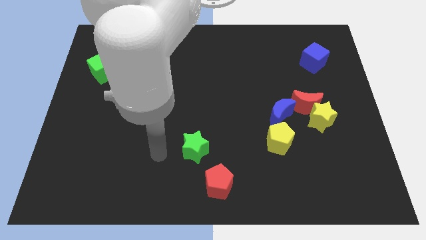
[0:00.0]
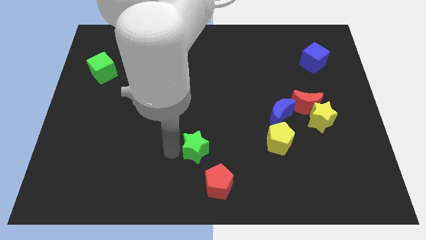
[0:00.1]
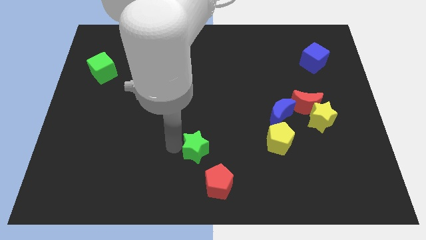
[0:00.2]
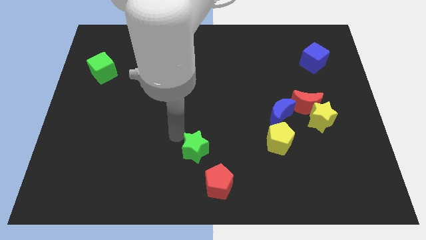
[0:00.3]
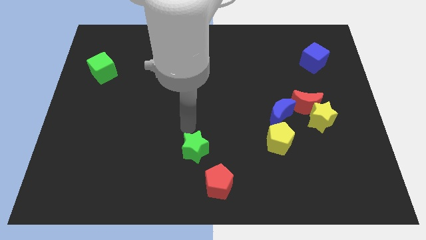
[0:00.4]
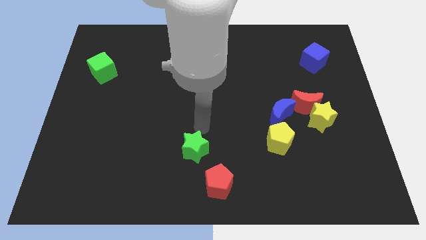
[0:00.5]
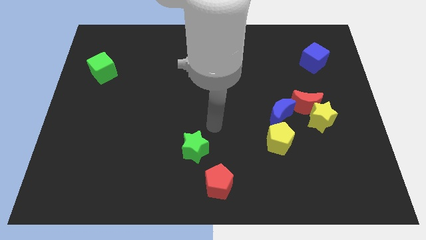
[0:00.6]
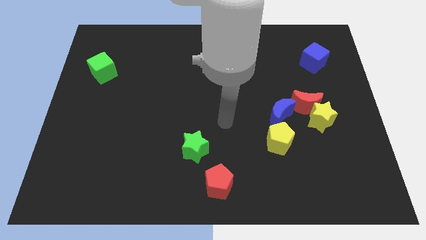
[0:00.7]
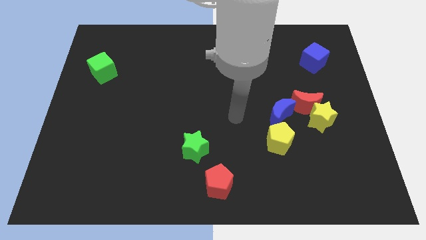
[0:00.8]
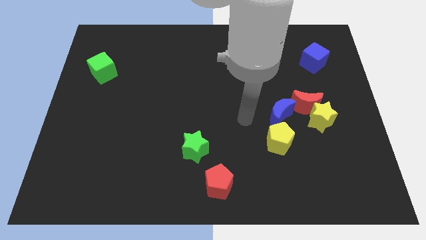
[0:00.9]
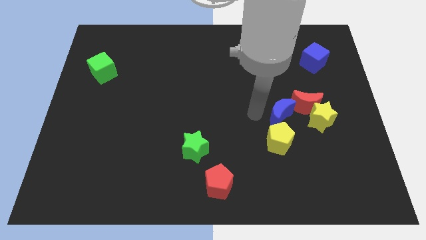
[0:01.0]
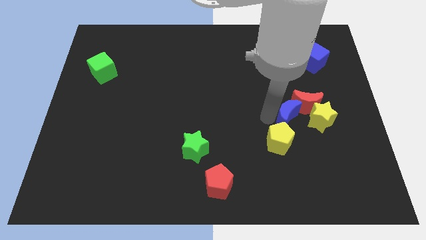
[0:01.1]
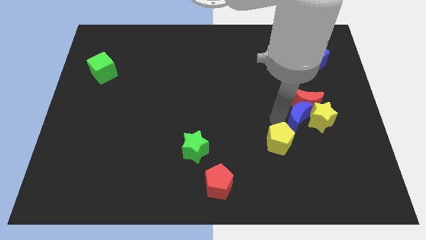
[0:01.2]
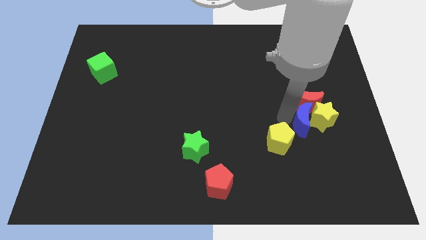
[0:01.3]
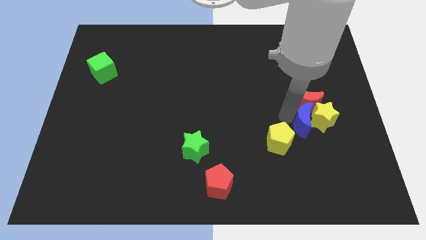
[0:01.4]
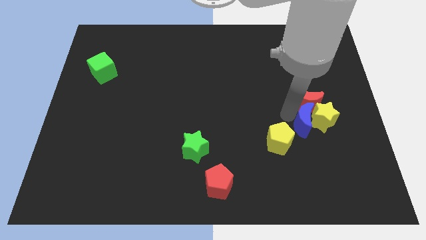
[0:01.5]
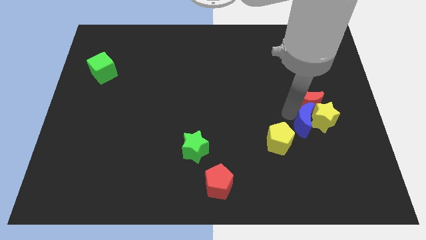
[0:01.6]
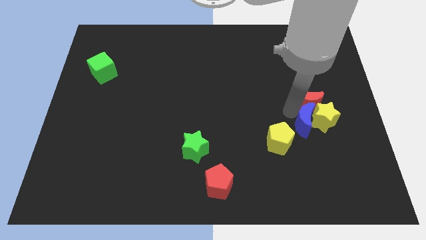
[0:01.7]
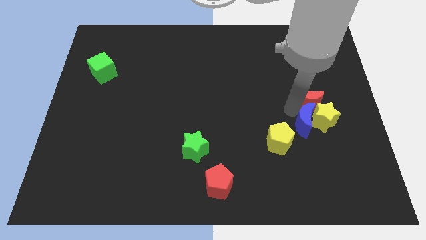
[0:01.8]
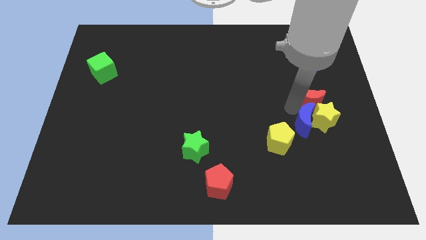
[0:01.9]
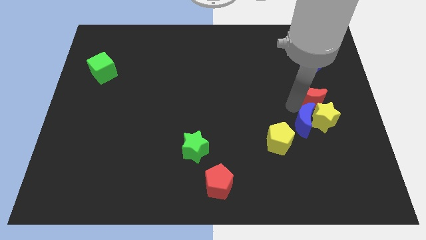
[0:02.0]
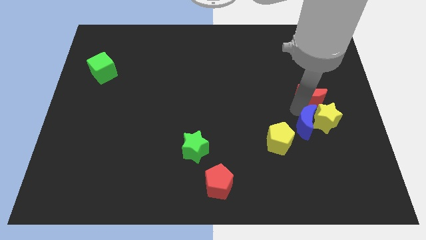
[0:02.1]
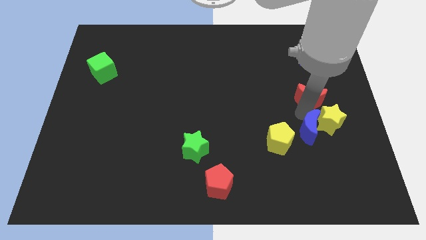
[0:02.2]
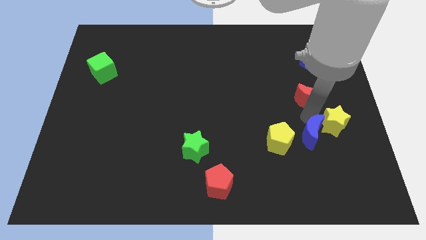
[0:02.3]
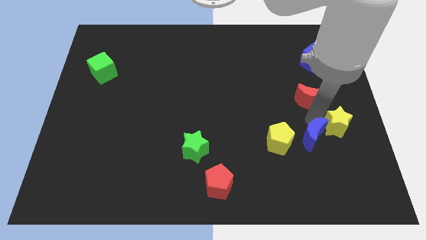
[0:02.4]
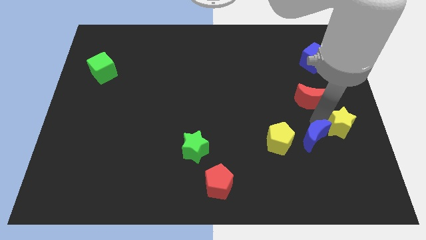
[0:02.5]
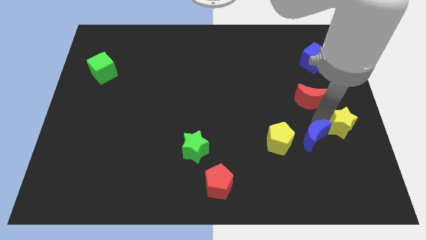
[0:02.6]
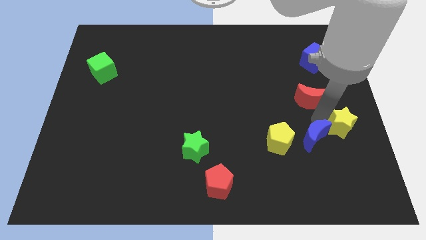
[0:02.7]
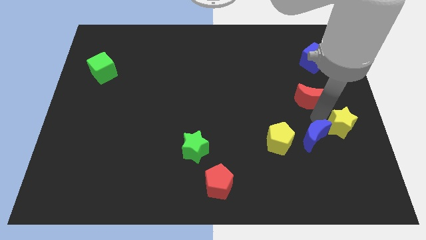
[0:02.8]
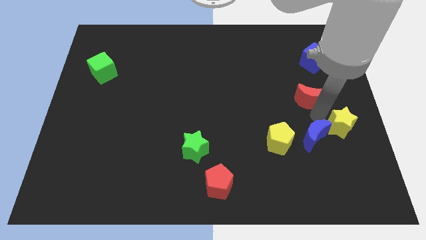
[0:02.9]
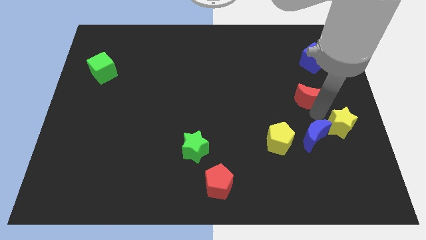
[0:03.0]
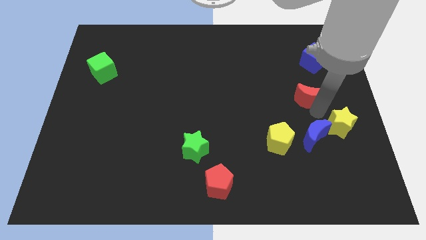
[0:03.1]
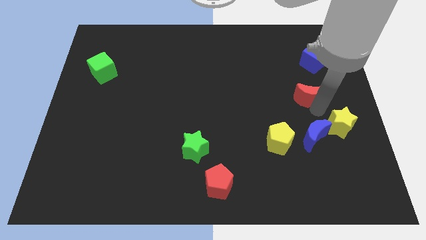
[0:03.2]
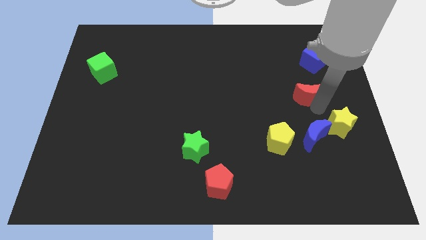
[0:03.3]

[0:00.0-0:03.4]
separate the red moon from the yellow star and blue moon

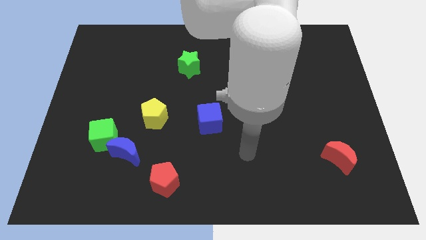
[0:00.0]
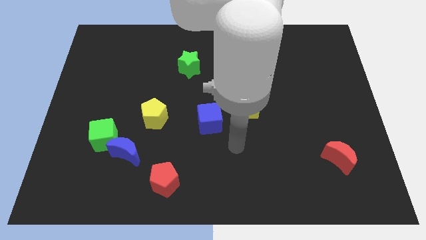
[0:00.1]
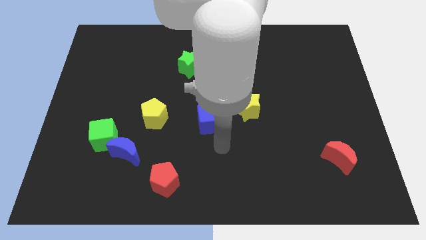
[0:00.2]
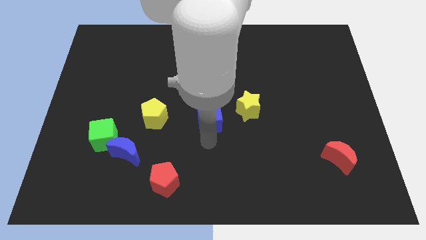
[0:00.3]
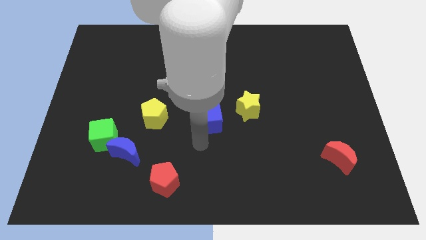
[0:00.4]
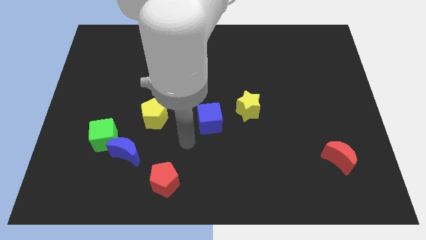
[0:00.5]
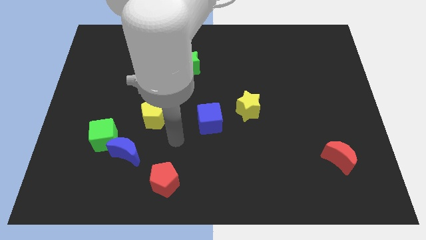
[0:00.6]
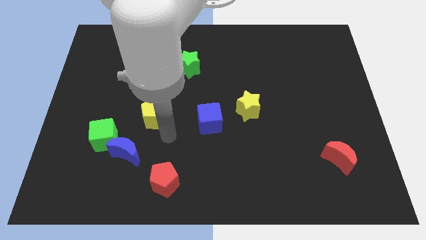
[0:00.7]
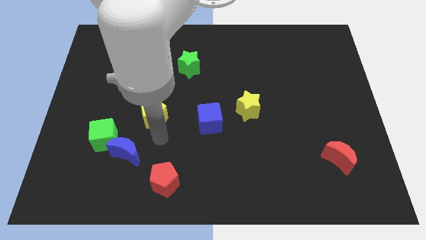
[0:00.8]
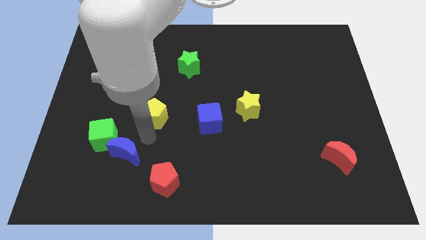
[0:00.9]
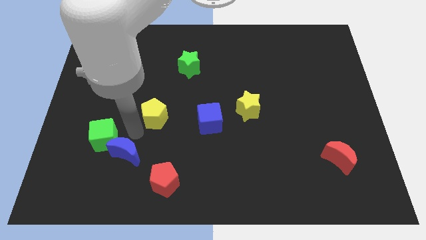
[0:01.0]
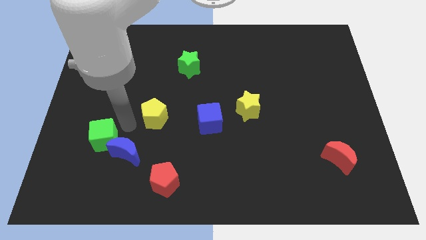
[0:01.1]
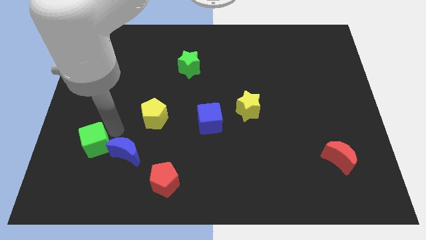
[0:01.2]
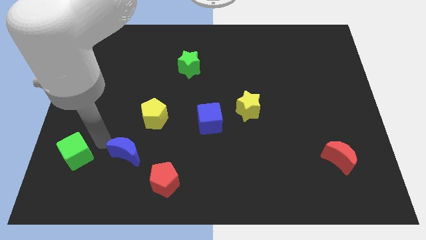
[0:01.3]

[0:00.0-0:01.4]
separate the blue moon from the green cube

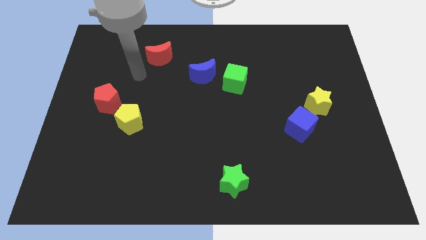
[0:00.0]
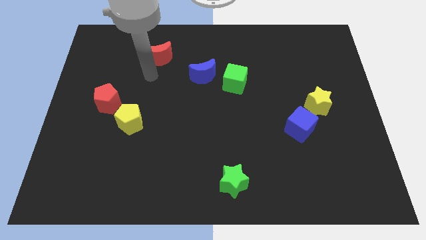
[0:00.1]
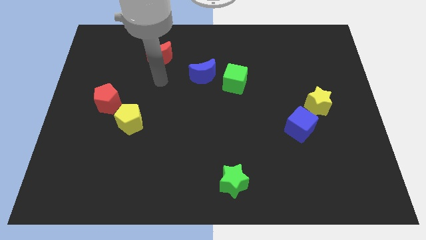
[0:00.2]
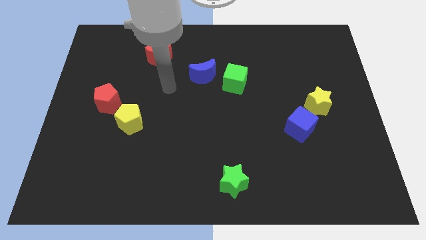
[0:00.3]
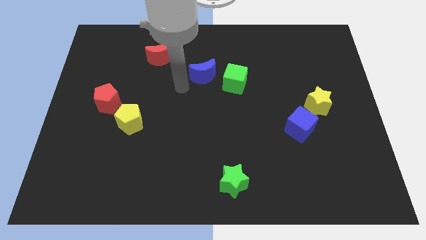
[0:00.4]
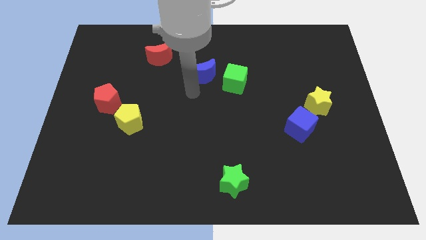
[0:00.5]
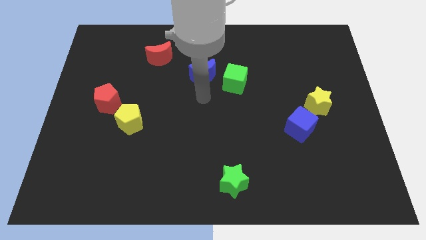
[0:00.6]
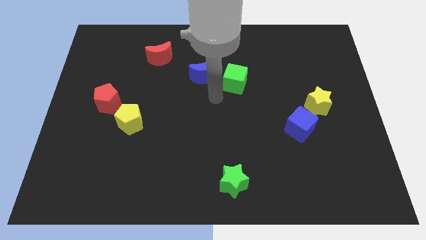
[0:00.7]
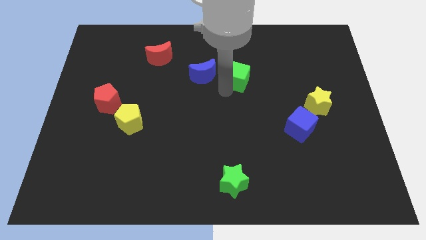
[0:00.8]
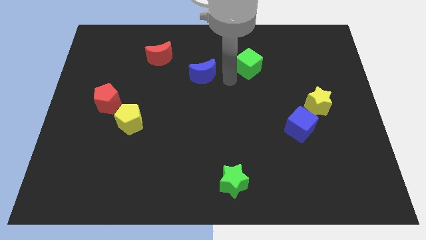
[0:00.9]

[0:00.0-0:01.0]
pull the blue moon apart from the green cube

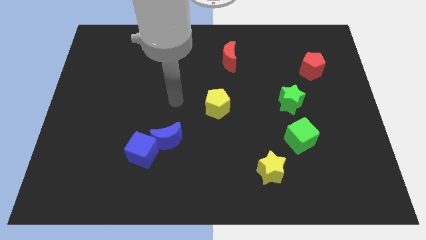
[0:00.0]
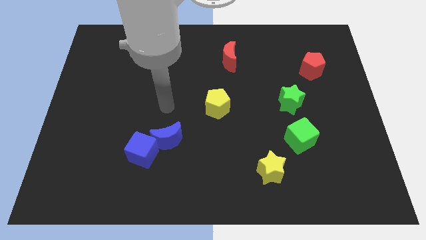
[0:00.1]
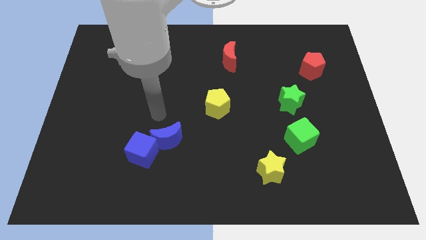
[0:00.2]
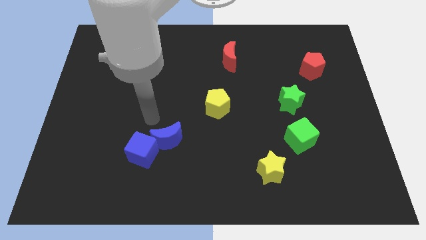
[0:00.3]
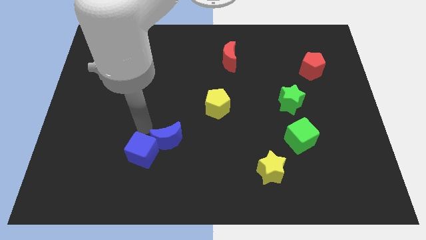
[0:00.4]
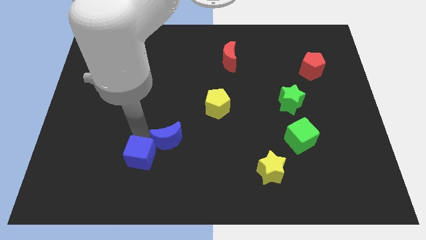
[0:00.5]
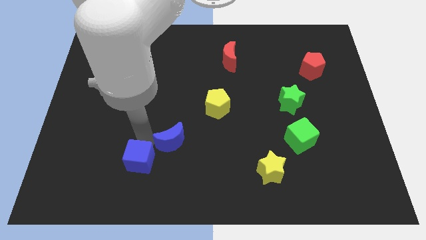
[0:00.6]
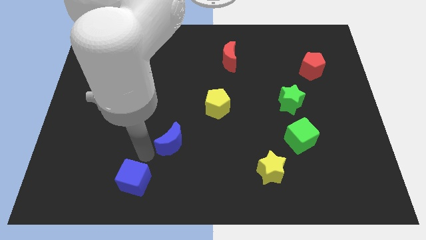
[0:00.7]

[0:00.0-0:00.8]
move the blue moon away from the blue cube

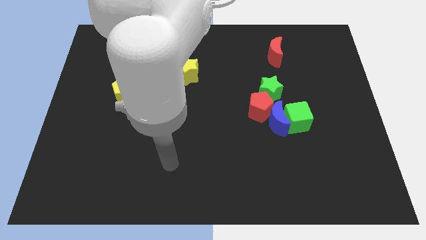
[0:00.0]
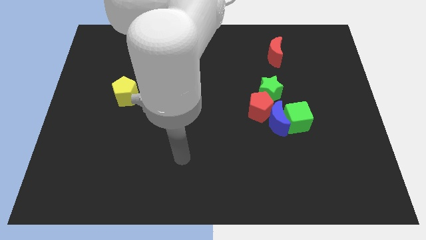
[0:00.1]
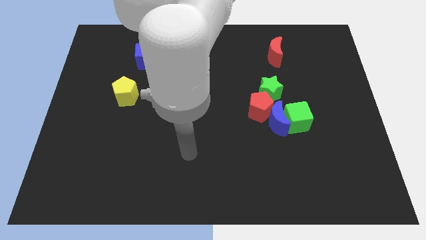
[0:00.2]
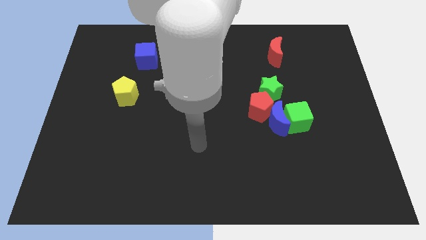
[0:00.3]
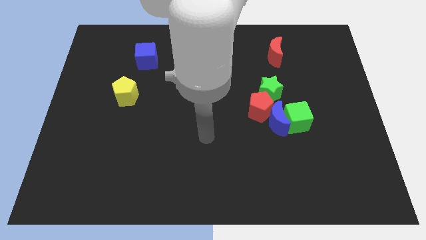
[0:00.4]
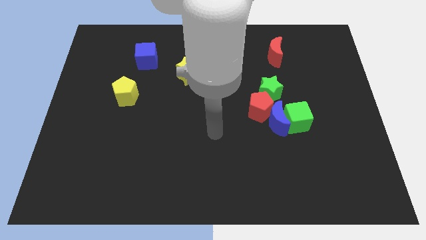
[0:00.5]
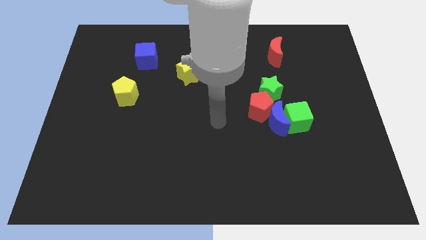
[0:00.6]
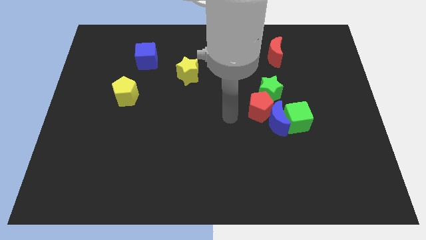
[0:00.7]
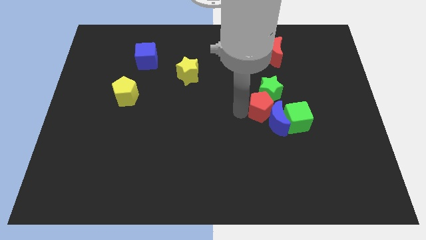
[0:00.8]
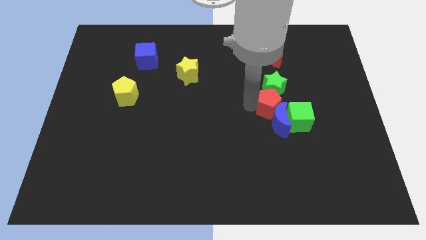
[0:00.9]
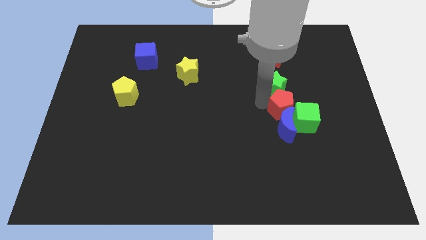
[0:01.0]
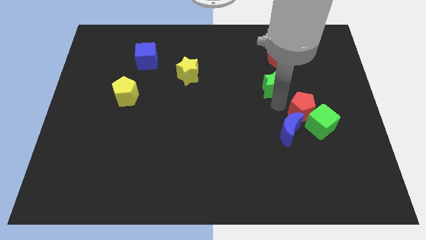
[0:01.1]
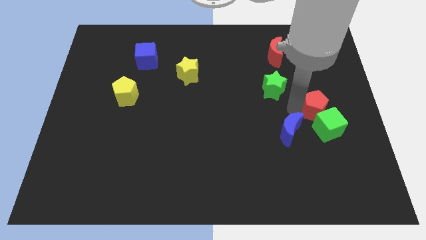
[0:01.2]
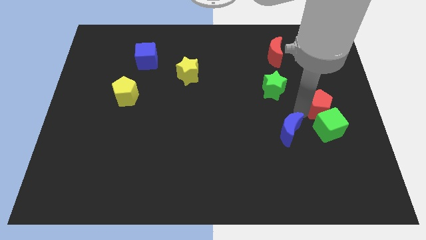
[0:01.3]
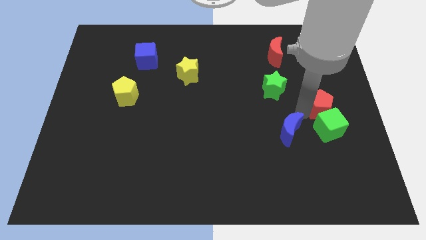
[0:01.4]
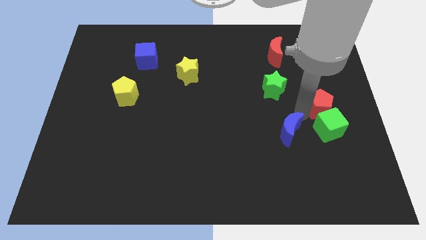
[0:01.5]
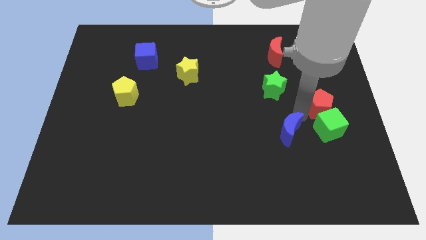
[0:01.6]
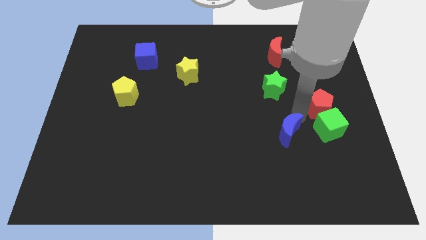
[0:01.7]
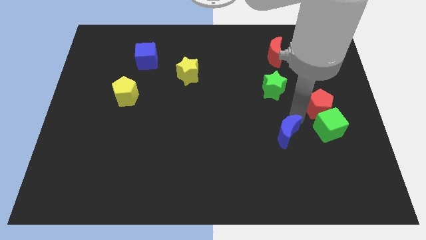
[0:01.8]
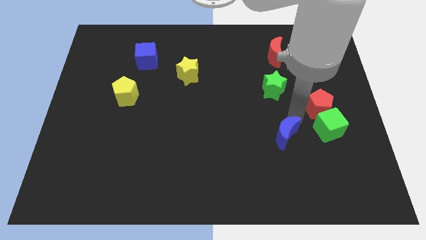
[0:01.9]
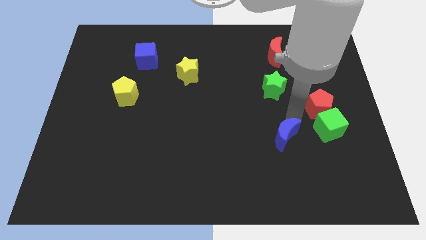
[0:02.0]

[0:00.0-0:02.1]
separate the blue moon from the green cube, red pentagon, and green star

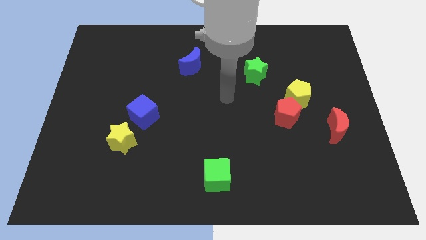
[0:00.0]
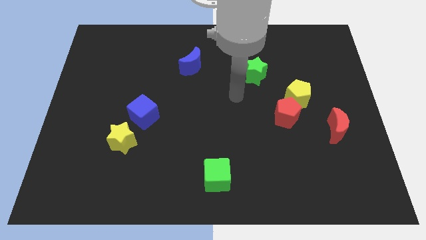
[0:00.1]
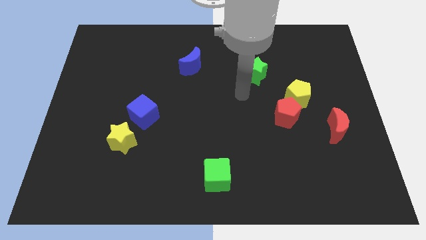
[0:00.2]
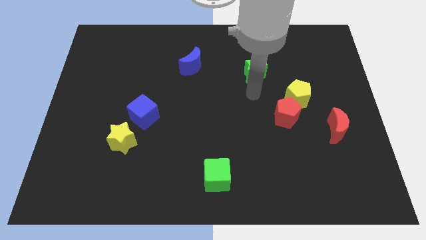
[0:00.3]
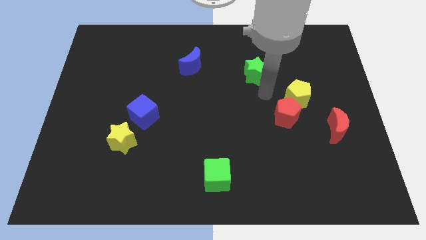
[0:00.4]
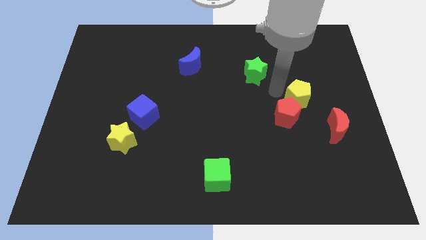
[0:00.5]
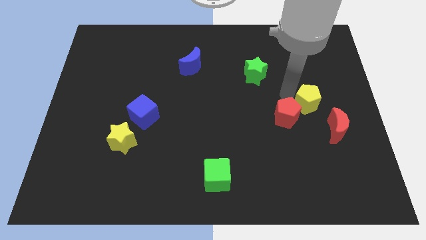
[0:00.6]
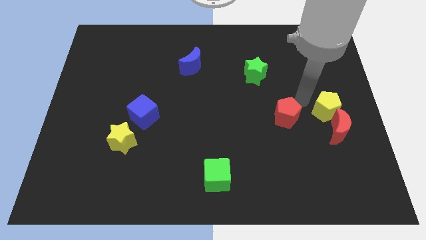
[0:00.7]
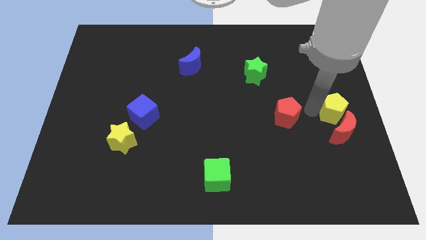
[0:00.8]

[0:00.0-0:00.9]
pull the red pentagon apart from the yellow pentagon
